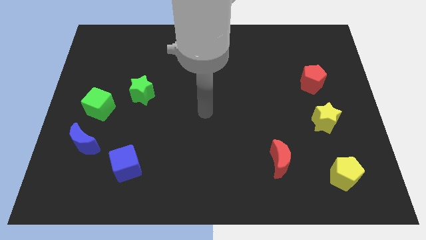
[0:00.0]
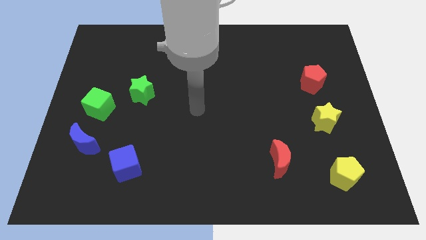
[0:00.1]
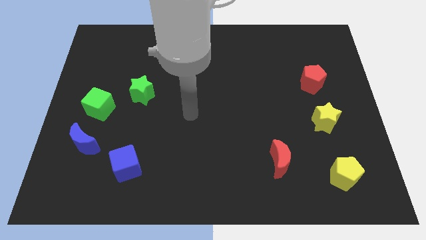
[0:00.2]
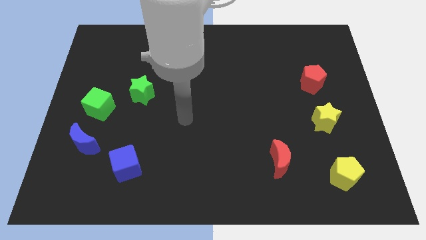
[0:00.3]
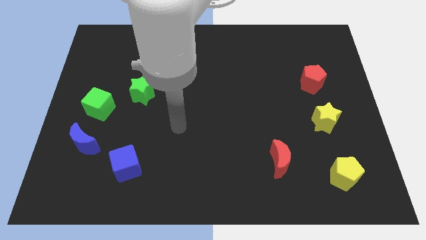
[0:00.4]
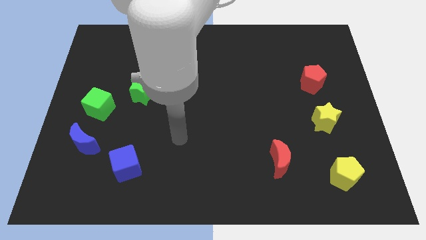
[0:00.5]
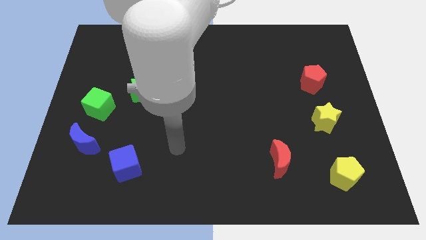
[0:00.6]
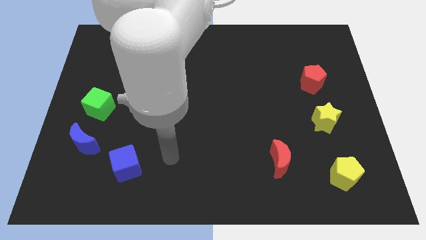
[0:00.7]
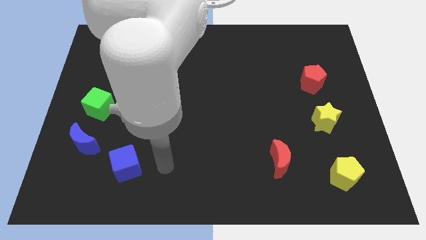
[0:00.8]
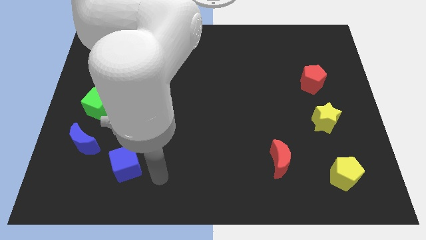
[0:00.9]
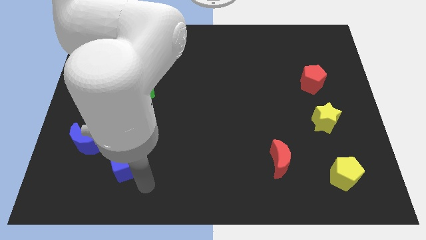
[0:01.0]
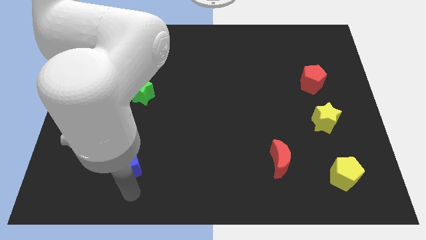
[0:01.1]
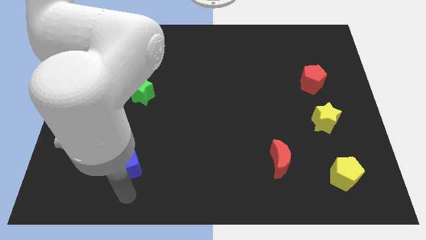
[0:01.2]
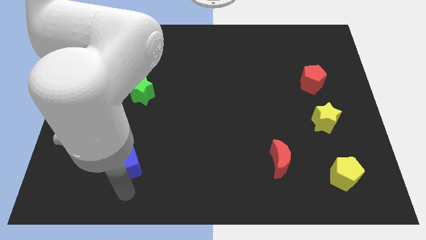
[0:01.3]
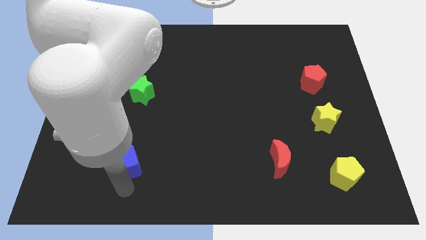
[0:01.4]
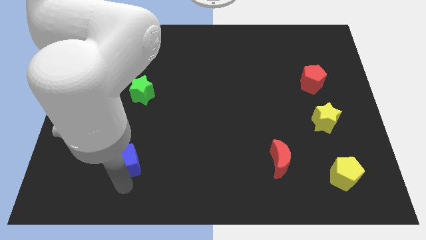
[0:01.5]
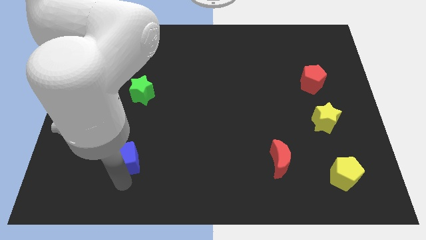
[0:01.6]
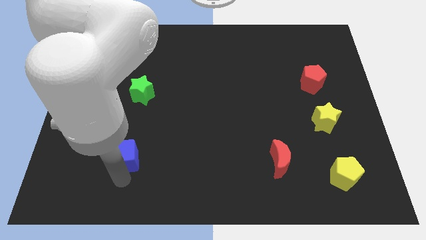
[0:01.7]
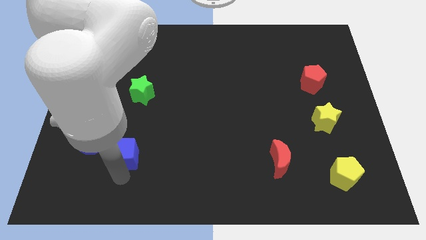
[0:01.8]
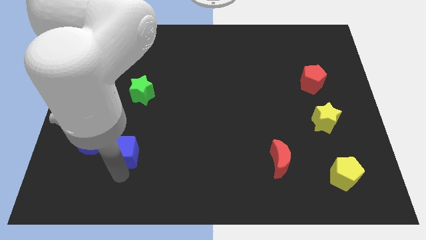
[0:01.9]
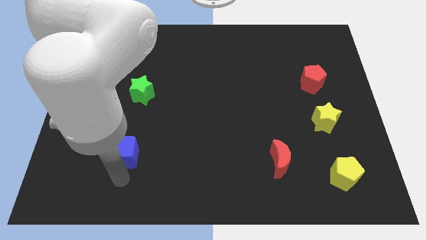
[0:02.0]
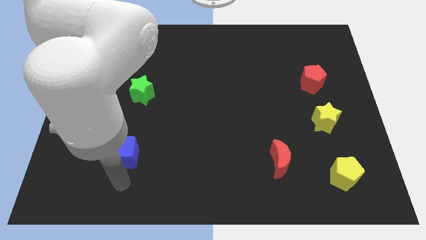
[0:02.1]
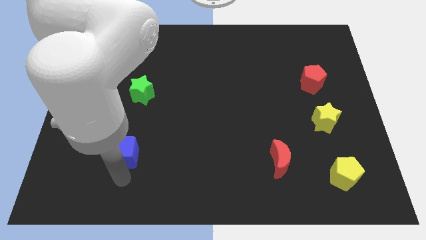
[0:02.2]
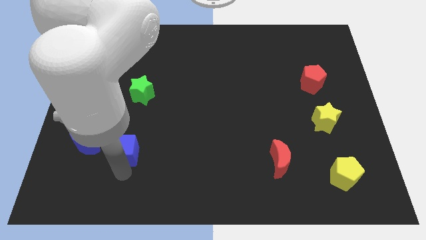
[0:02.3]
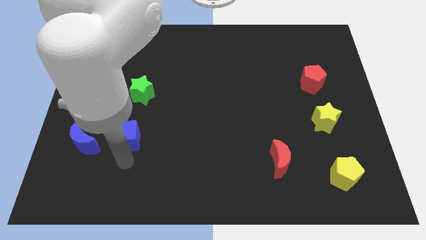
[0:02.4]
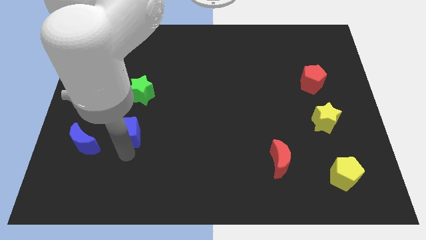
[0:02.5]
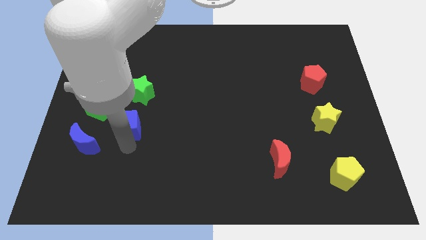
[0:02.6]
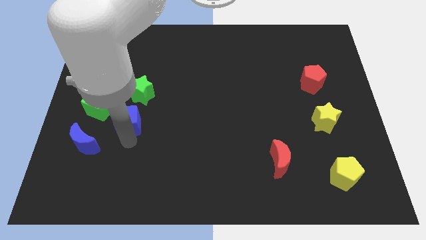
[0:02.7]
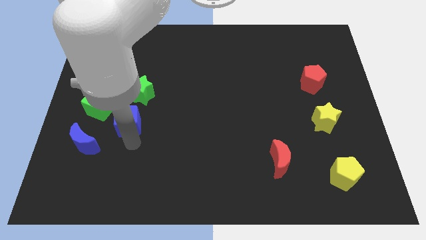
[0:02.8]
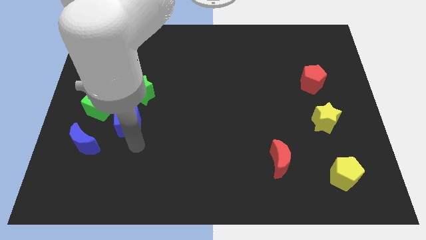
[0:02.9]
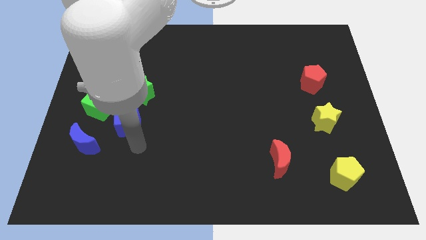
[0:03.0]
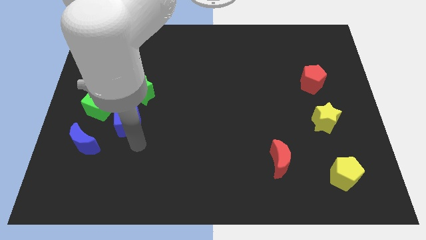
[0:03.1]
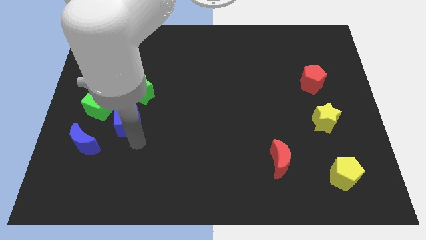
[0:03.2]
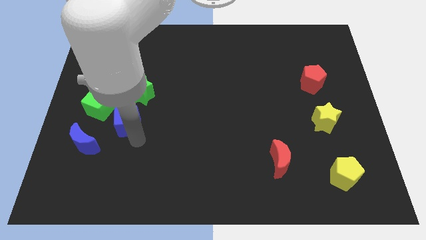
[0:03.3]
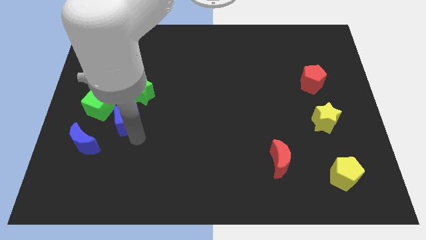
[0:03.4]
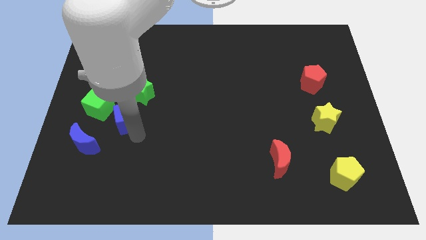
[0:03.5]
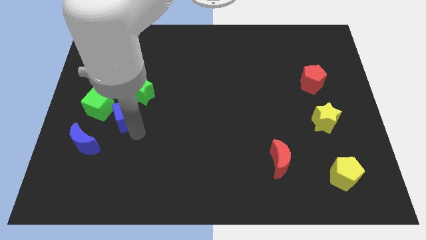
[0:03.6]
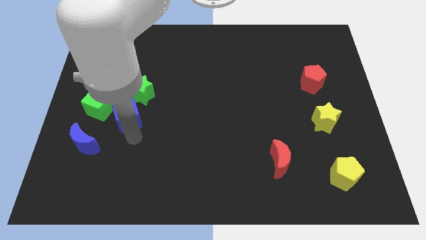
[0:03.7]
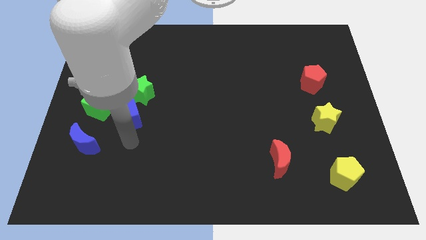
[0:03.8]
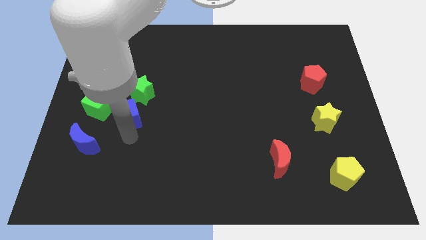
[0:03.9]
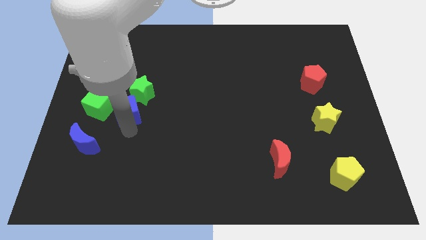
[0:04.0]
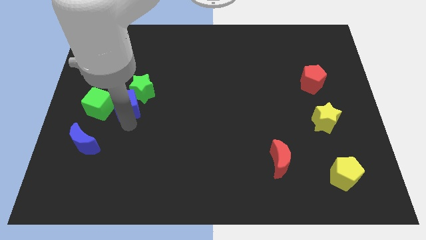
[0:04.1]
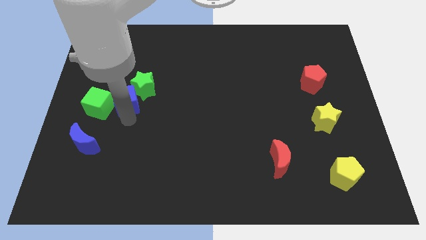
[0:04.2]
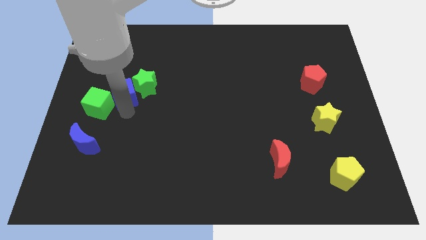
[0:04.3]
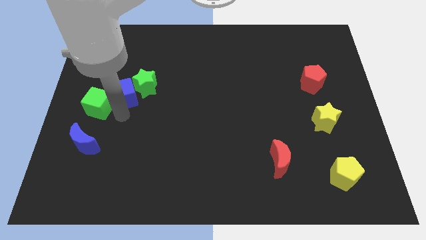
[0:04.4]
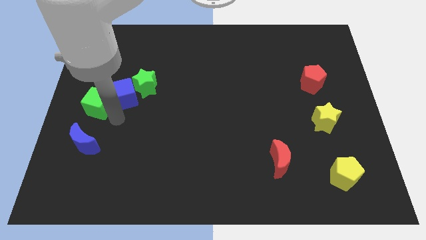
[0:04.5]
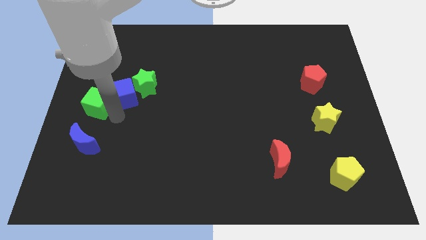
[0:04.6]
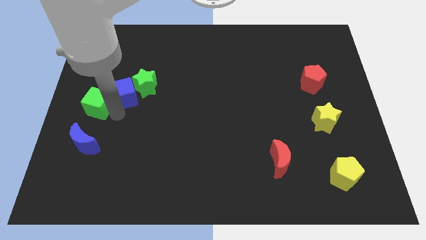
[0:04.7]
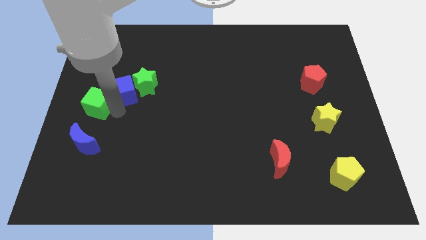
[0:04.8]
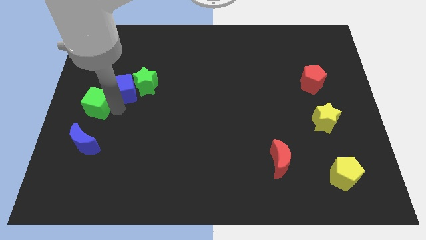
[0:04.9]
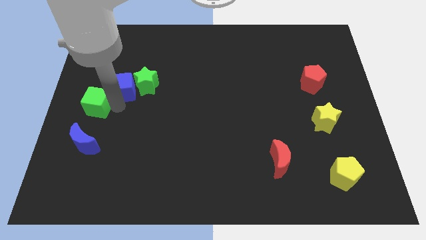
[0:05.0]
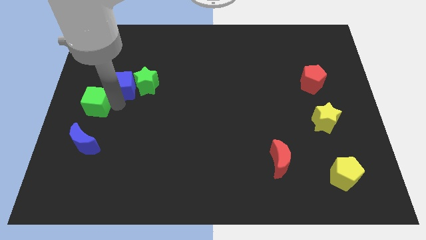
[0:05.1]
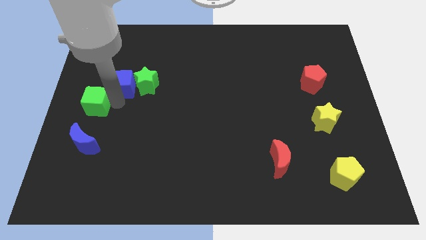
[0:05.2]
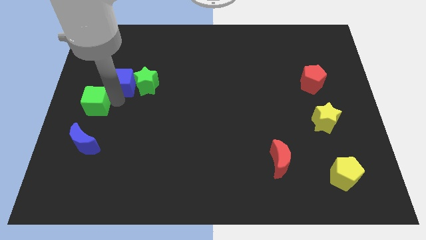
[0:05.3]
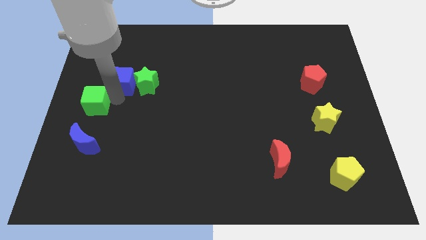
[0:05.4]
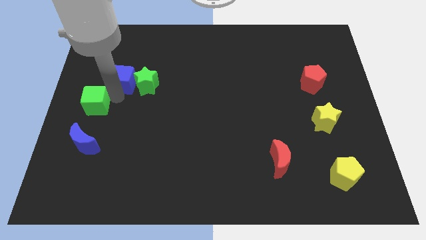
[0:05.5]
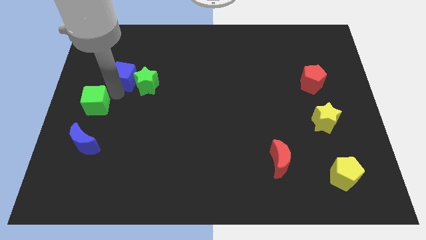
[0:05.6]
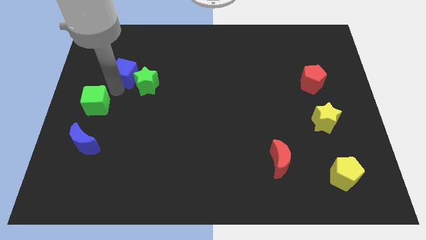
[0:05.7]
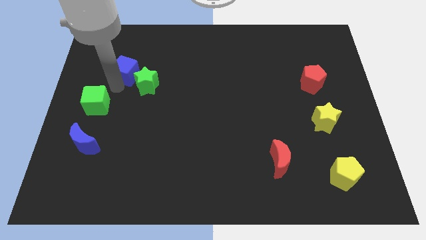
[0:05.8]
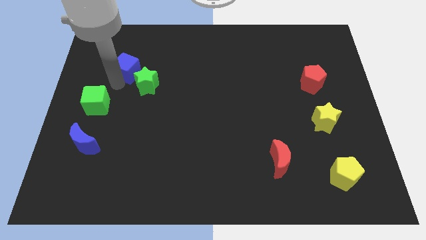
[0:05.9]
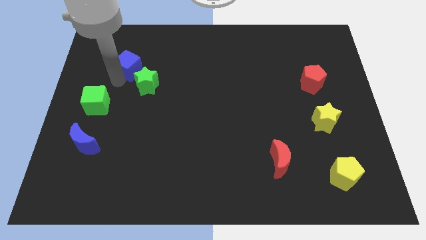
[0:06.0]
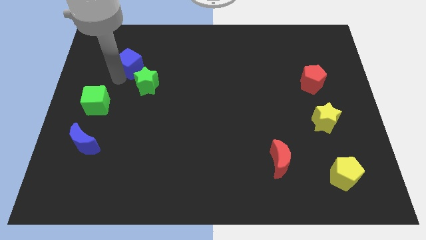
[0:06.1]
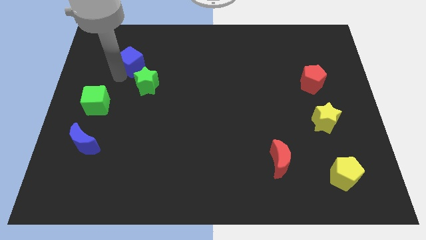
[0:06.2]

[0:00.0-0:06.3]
slide the blue cube to the top of the green star
